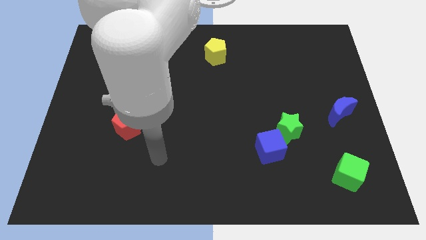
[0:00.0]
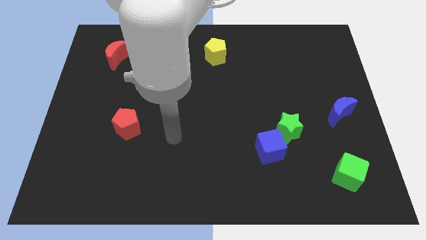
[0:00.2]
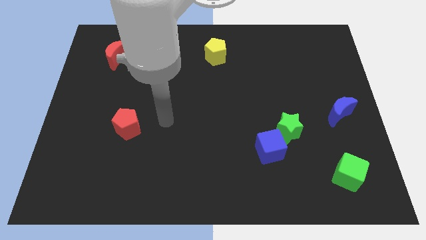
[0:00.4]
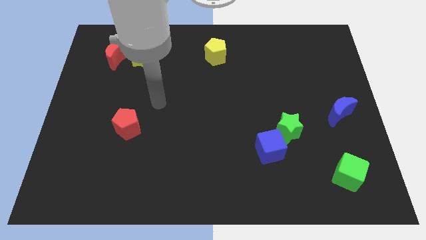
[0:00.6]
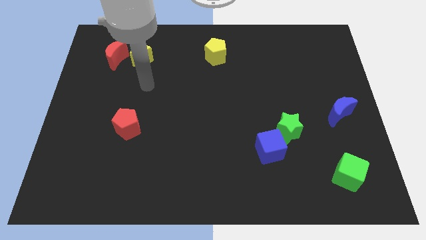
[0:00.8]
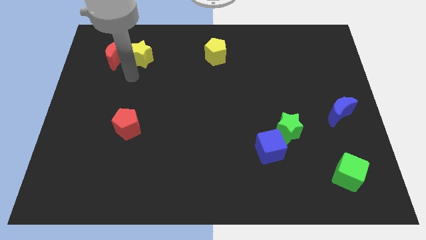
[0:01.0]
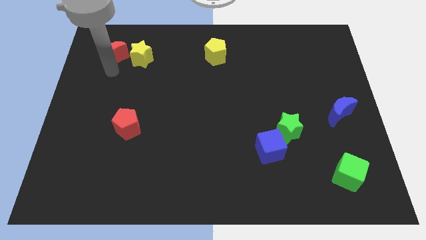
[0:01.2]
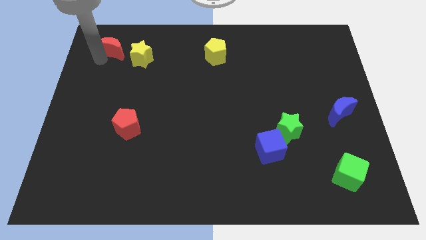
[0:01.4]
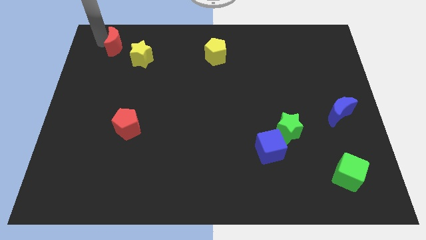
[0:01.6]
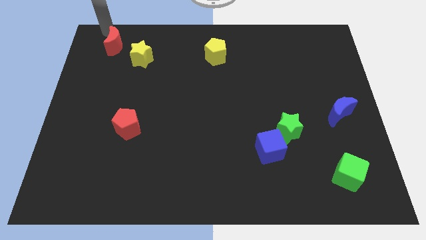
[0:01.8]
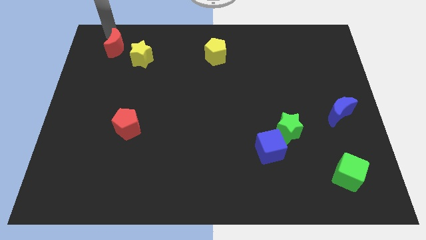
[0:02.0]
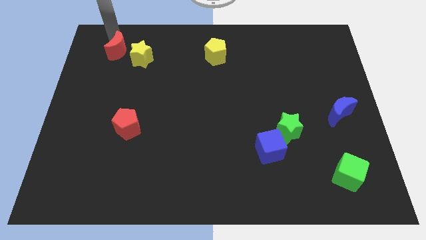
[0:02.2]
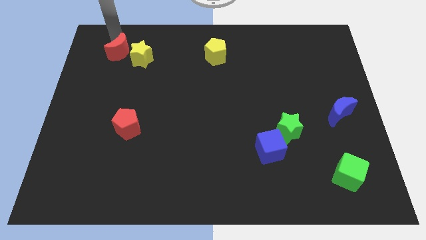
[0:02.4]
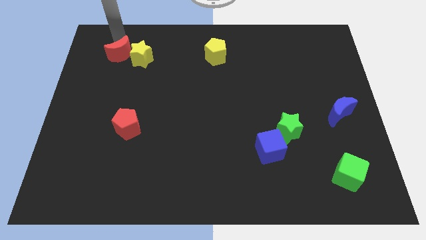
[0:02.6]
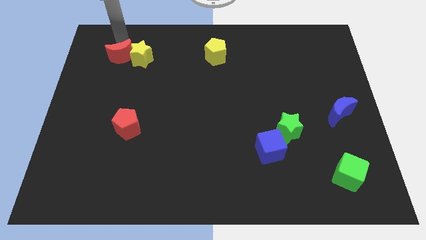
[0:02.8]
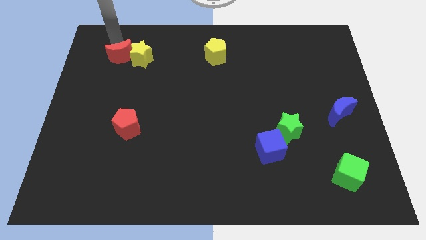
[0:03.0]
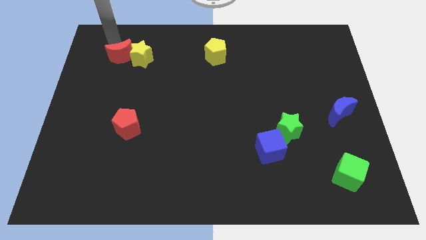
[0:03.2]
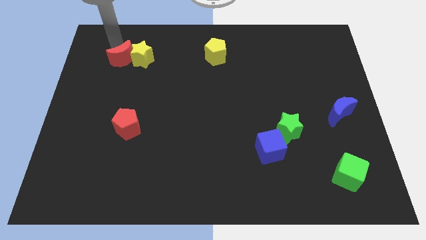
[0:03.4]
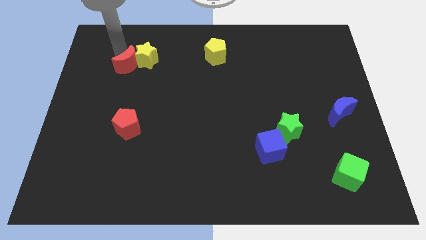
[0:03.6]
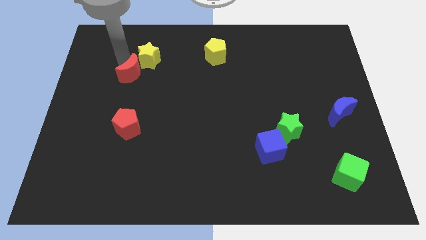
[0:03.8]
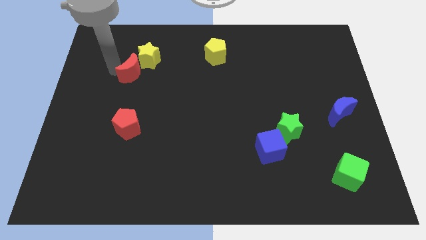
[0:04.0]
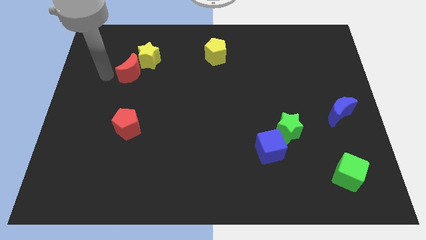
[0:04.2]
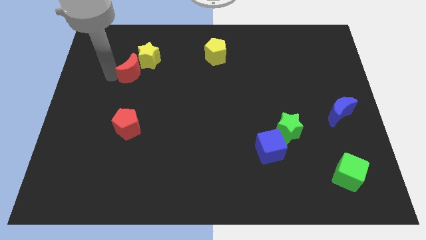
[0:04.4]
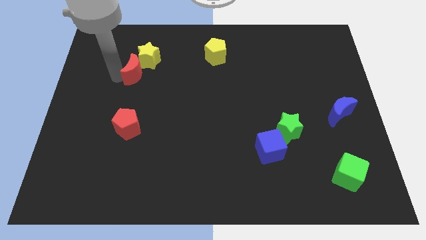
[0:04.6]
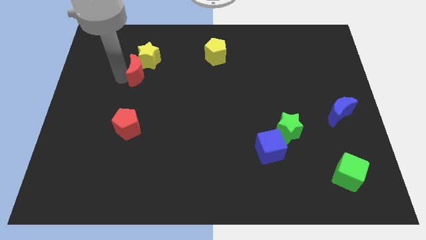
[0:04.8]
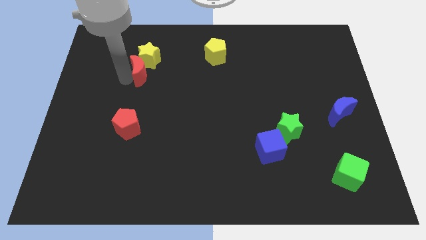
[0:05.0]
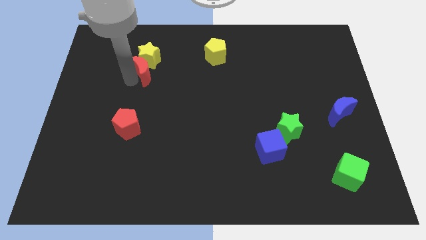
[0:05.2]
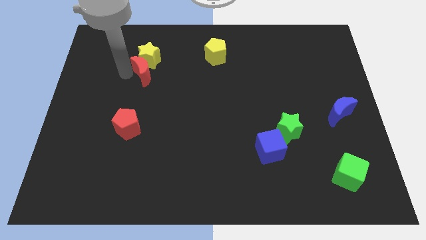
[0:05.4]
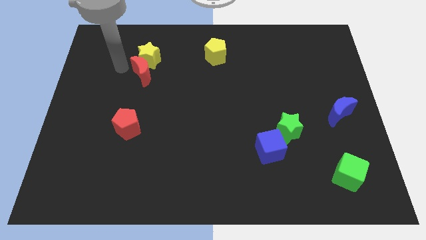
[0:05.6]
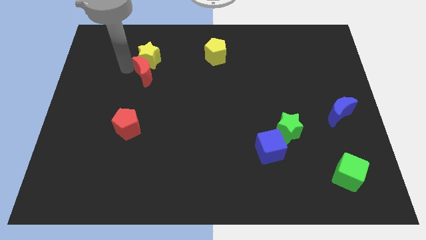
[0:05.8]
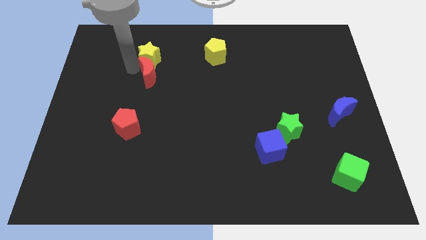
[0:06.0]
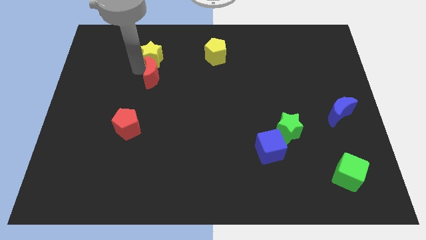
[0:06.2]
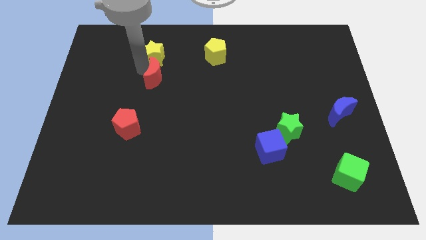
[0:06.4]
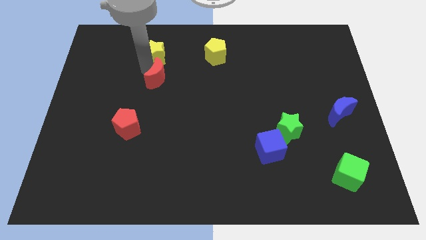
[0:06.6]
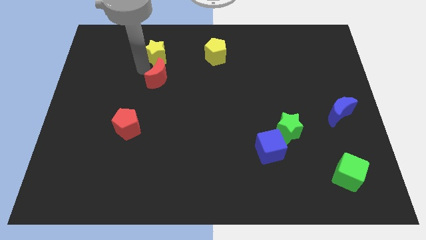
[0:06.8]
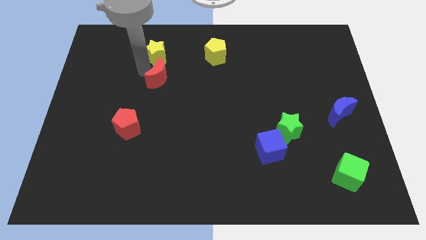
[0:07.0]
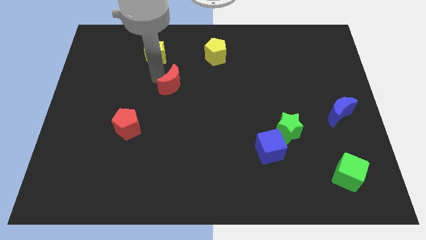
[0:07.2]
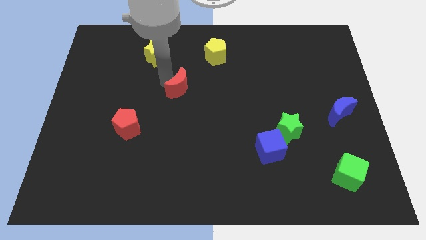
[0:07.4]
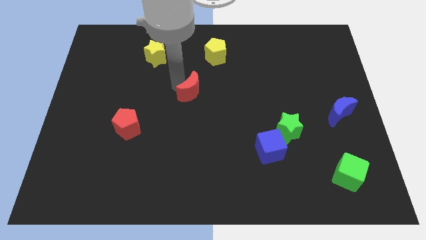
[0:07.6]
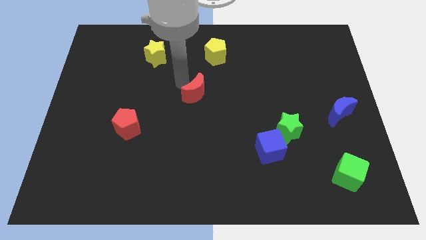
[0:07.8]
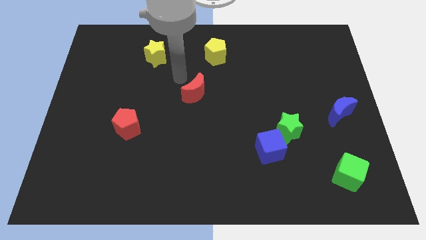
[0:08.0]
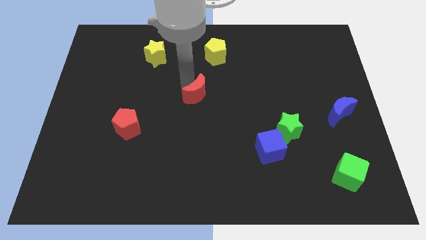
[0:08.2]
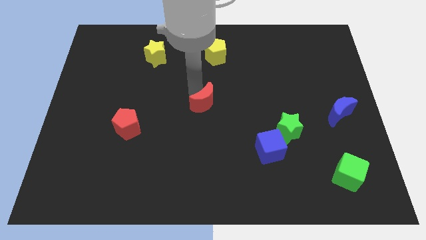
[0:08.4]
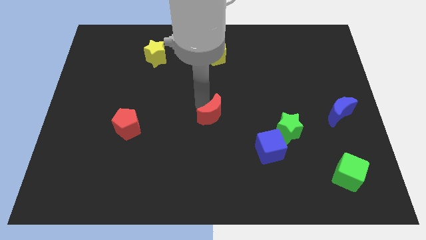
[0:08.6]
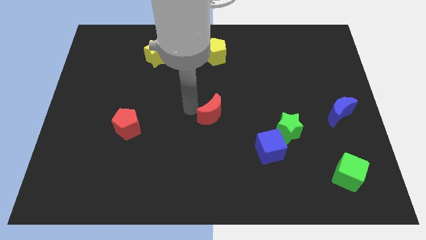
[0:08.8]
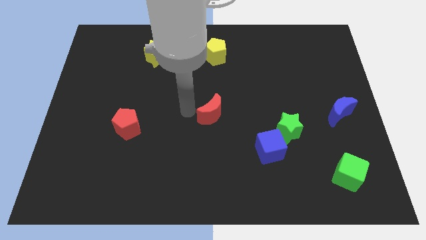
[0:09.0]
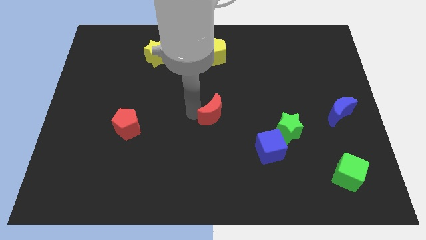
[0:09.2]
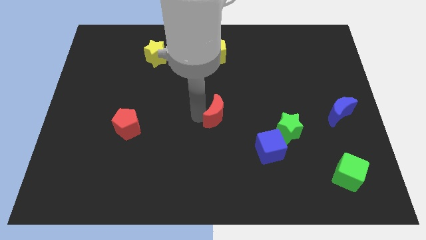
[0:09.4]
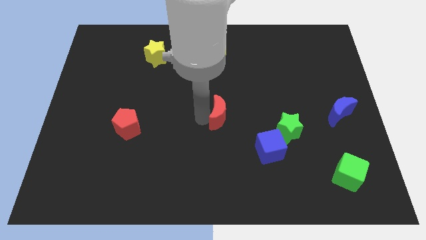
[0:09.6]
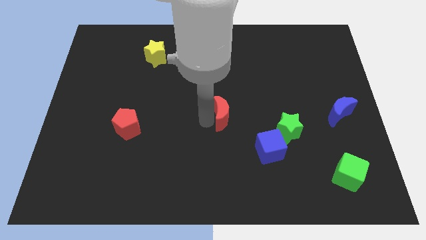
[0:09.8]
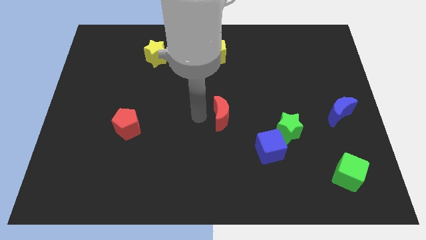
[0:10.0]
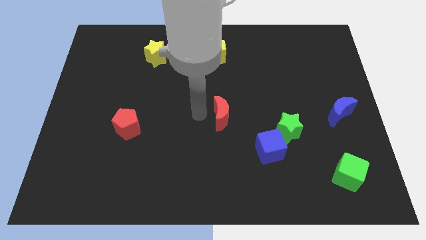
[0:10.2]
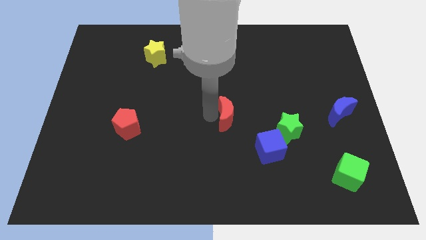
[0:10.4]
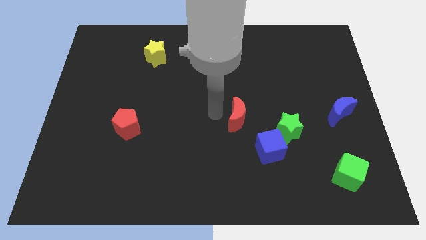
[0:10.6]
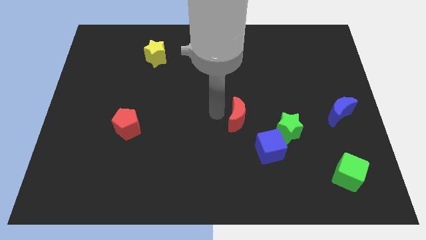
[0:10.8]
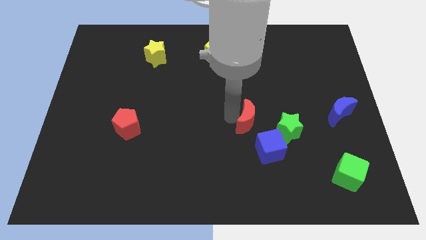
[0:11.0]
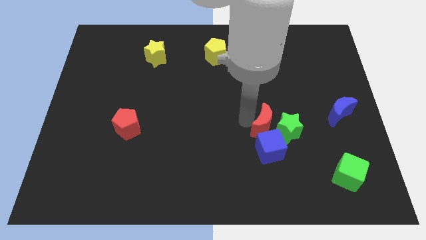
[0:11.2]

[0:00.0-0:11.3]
put the red moon close to the green star
